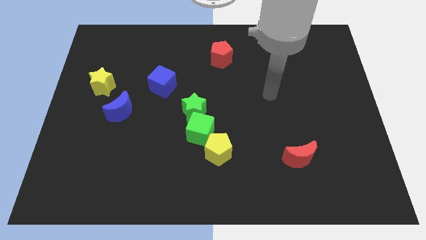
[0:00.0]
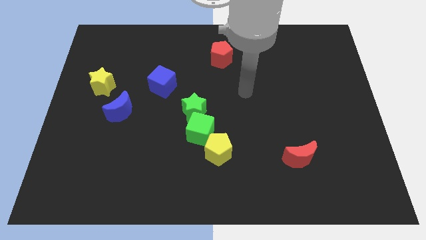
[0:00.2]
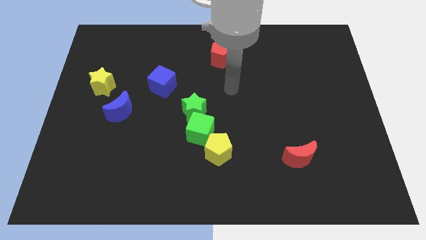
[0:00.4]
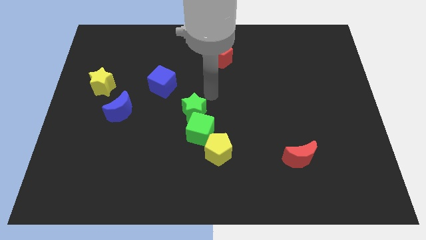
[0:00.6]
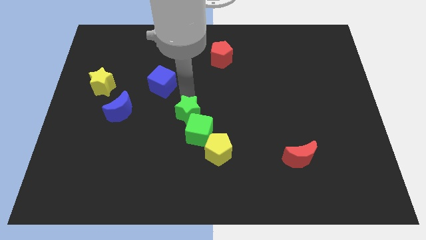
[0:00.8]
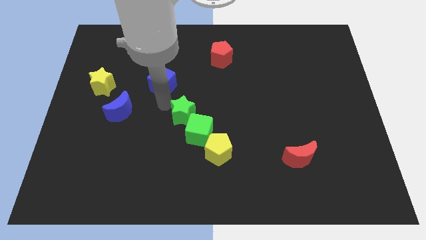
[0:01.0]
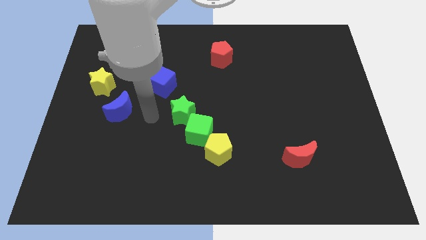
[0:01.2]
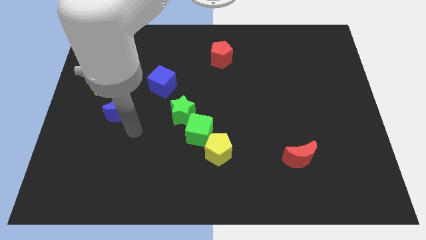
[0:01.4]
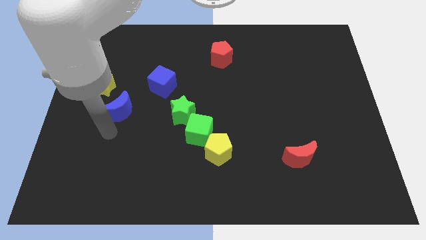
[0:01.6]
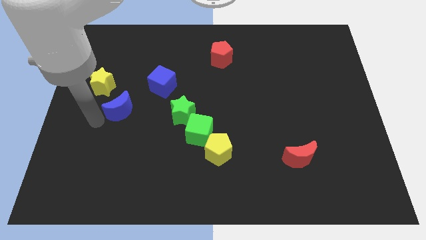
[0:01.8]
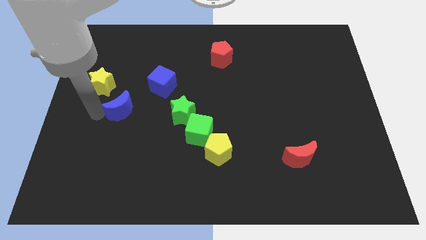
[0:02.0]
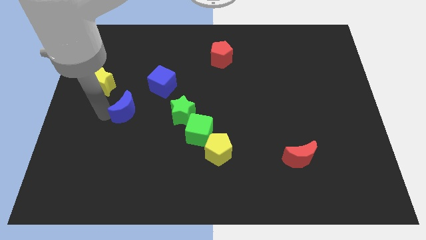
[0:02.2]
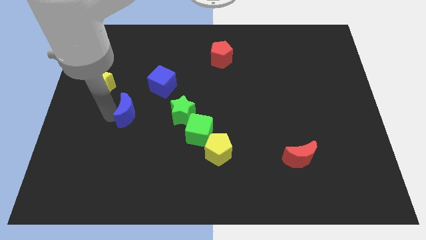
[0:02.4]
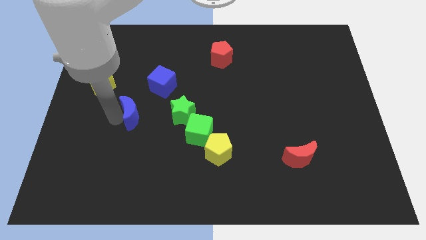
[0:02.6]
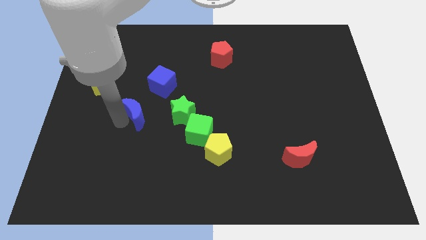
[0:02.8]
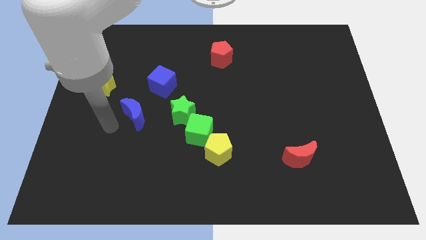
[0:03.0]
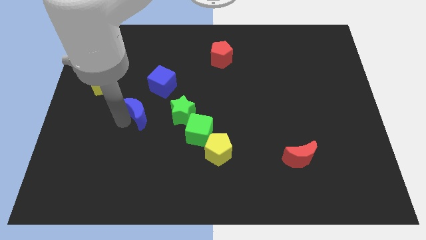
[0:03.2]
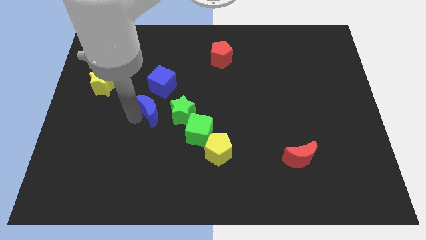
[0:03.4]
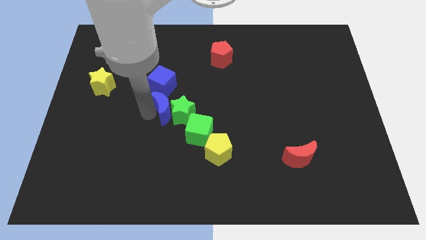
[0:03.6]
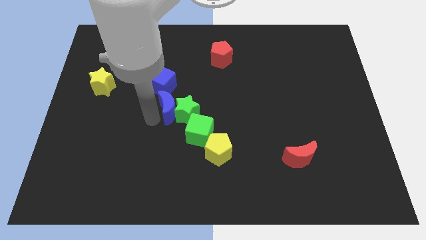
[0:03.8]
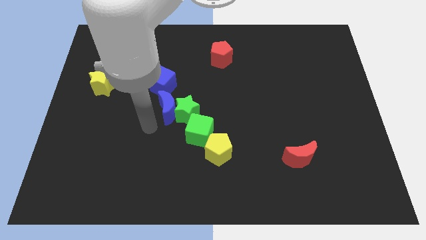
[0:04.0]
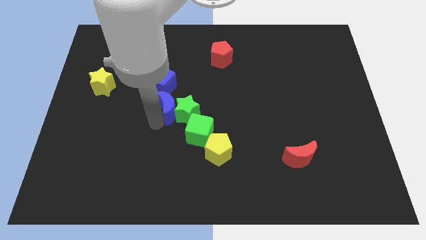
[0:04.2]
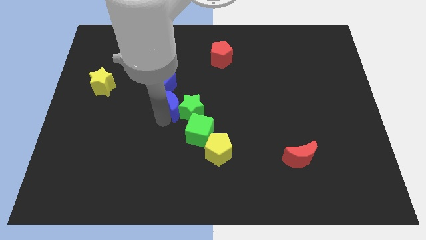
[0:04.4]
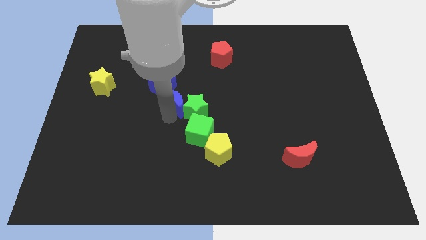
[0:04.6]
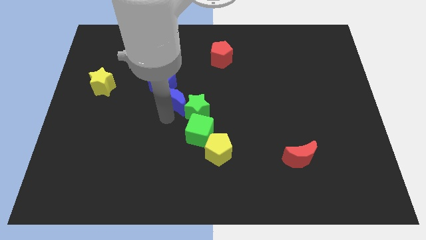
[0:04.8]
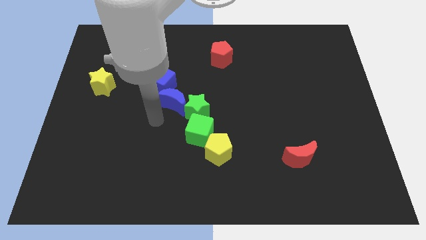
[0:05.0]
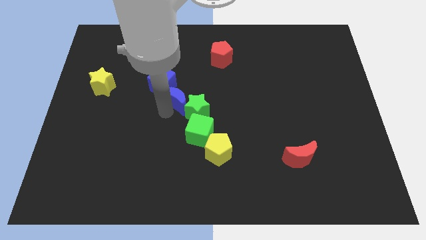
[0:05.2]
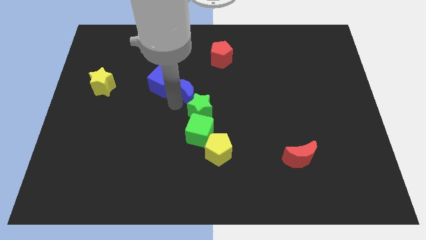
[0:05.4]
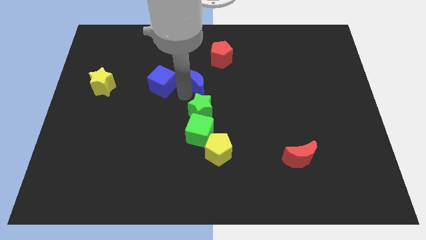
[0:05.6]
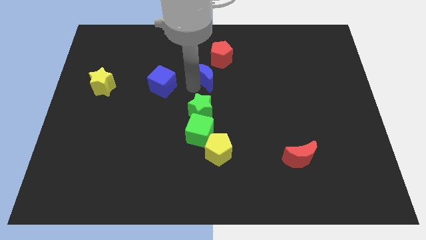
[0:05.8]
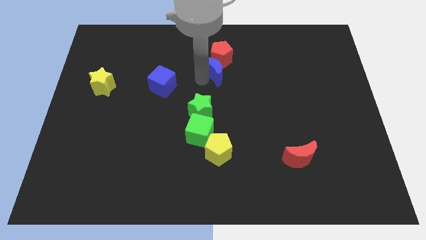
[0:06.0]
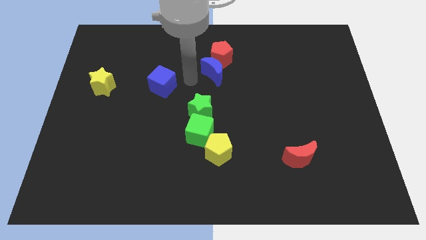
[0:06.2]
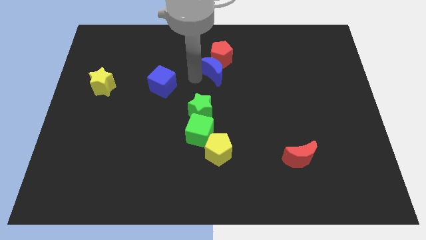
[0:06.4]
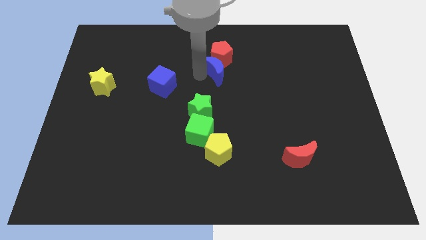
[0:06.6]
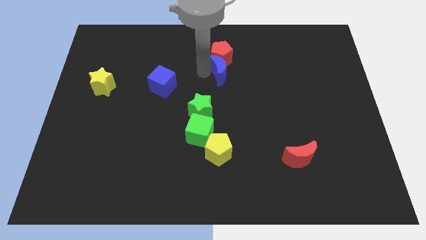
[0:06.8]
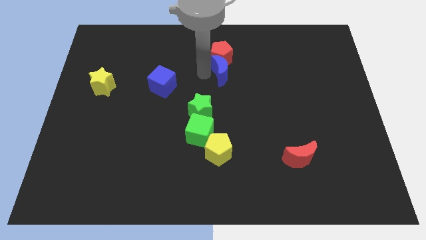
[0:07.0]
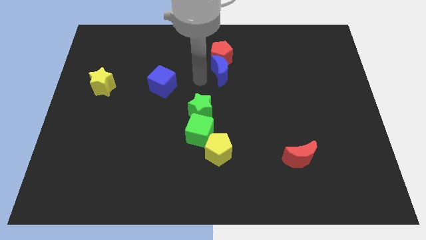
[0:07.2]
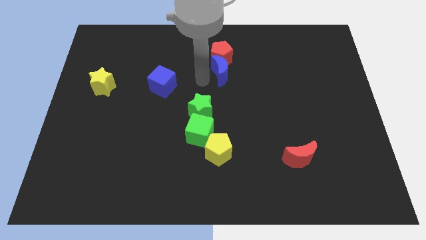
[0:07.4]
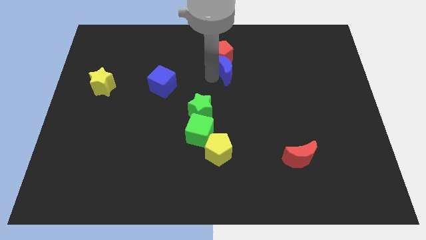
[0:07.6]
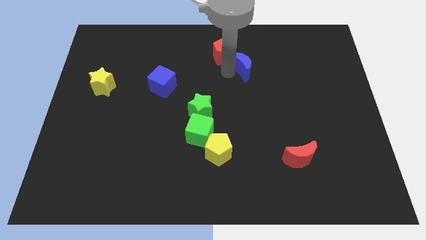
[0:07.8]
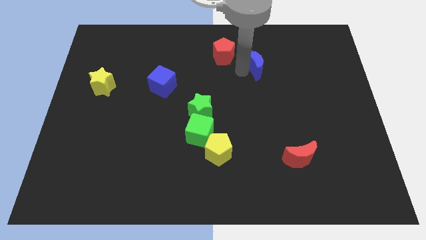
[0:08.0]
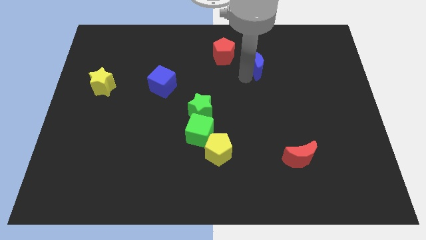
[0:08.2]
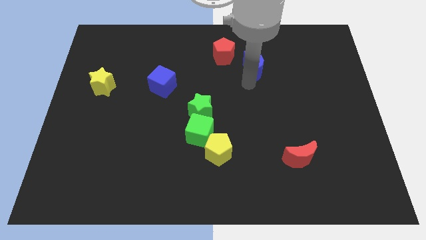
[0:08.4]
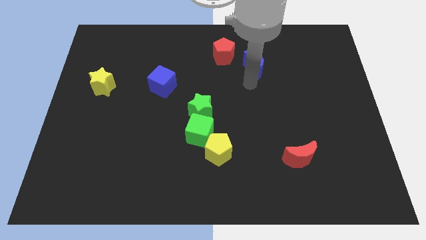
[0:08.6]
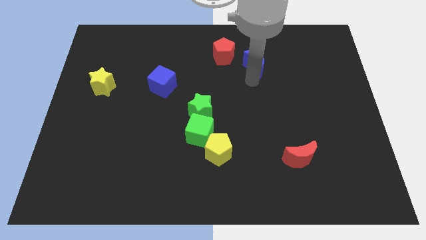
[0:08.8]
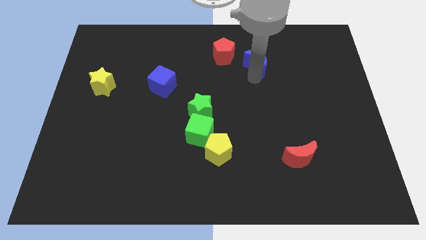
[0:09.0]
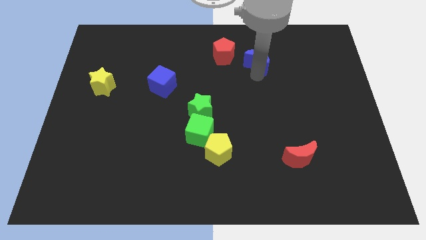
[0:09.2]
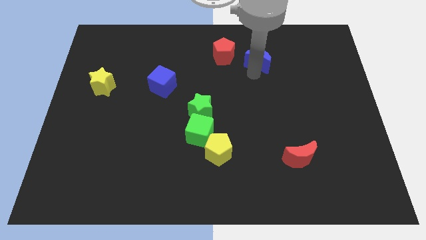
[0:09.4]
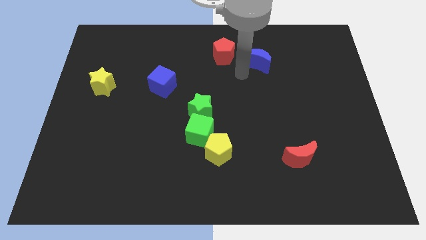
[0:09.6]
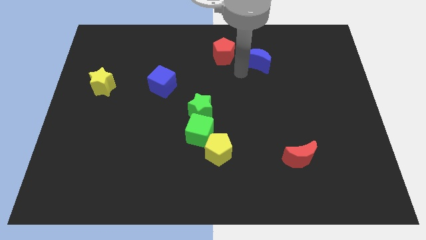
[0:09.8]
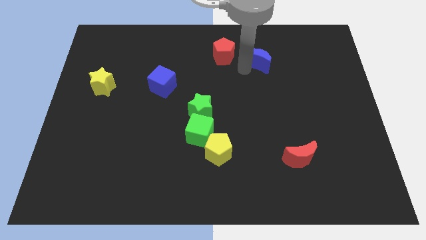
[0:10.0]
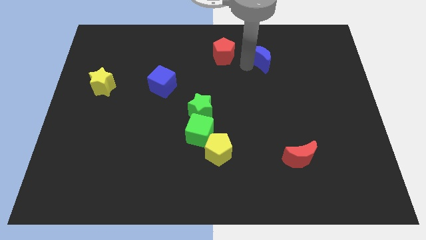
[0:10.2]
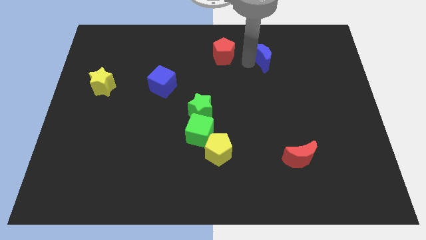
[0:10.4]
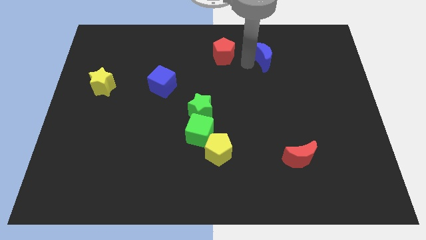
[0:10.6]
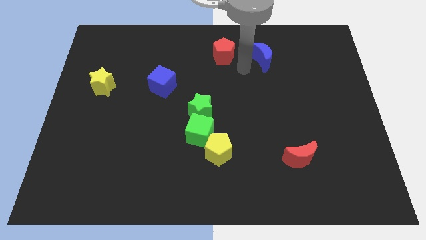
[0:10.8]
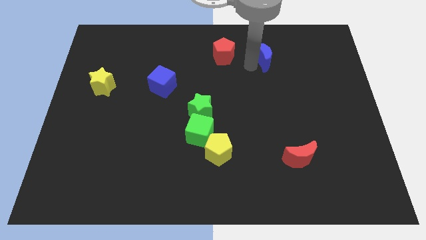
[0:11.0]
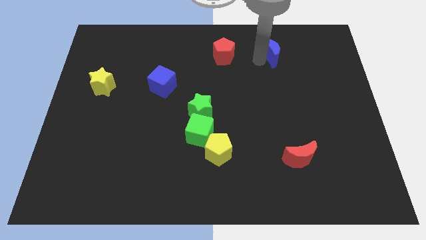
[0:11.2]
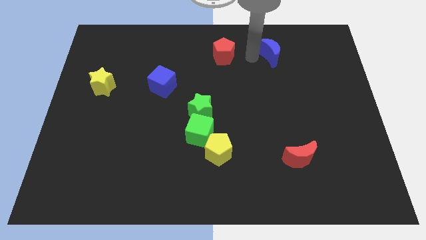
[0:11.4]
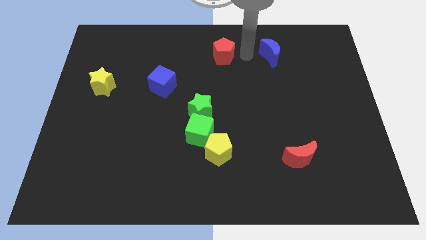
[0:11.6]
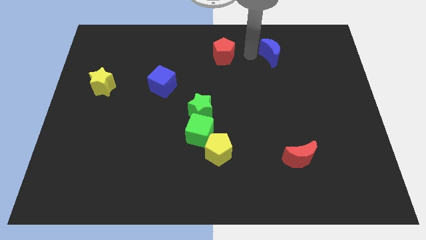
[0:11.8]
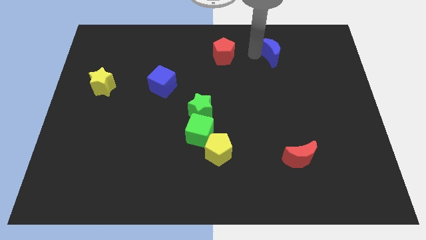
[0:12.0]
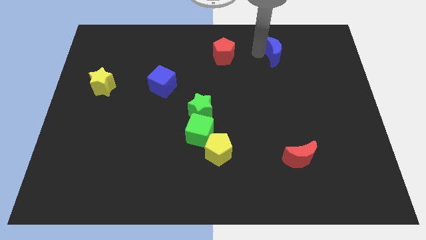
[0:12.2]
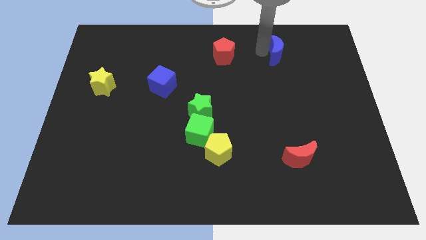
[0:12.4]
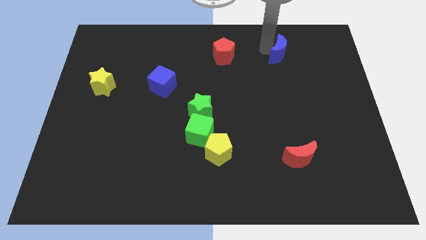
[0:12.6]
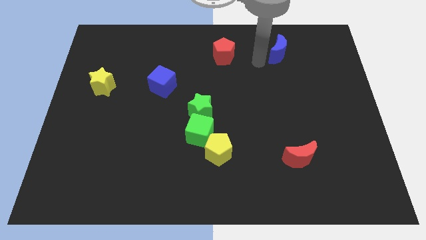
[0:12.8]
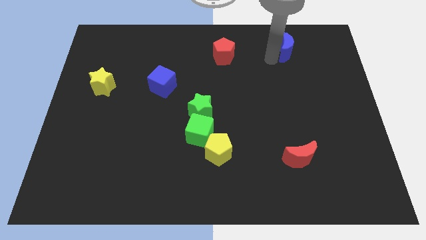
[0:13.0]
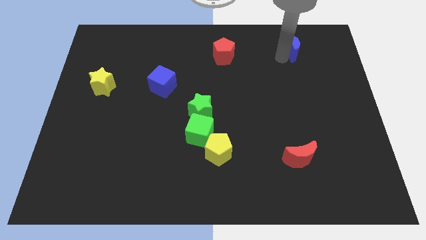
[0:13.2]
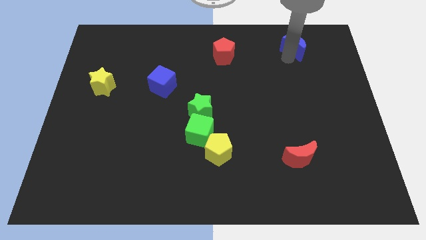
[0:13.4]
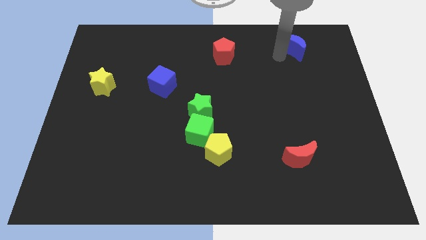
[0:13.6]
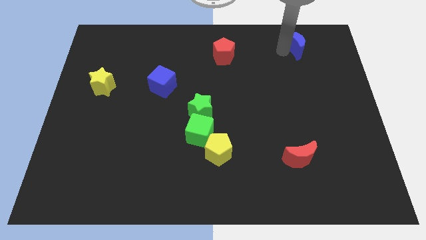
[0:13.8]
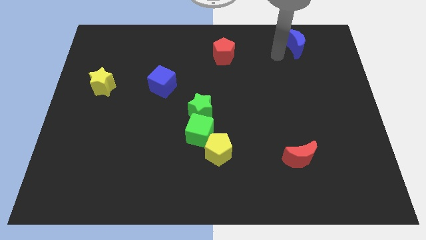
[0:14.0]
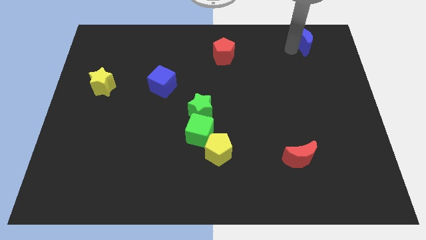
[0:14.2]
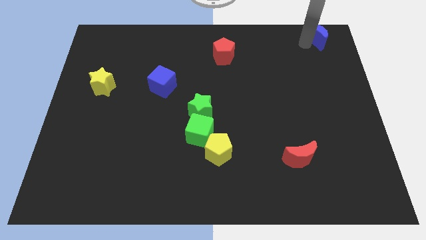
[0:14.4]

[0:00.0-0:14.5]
move the blue moon to the top right
